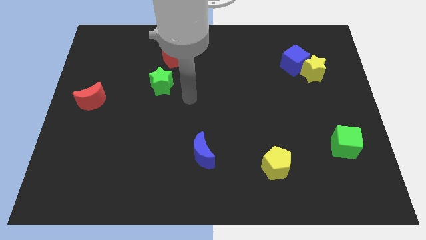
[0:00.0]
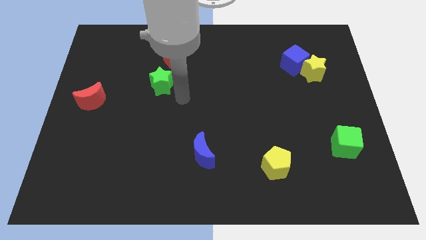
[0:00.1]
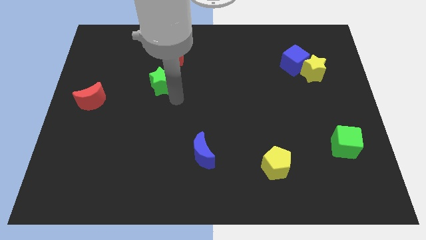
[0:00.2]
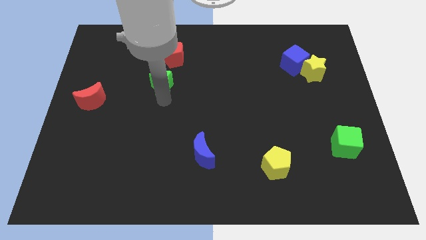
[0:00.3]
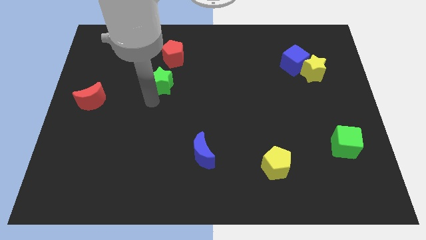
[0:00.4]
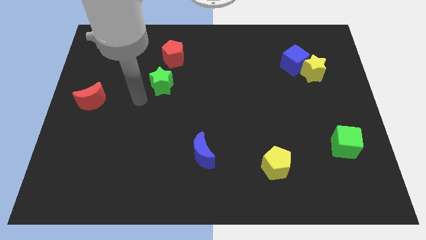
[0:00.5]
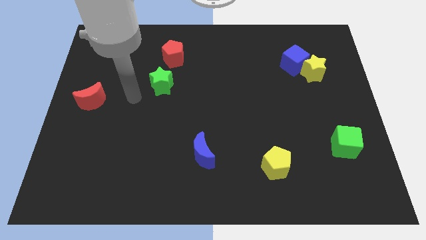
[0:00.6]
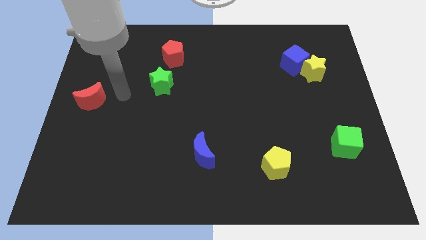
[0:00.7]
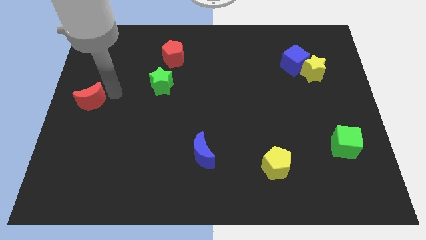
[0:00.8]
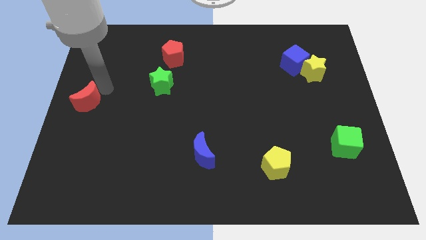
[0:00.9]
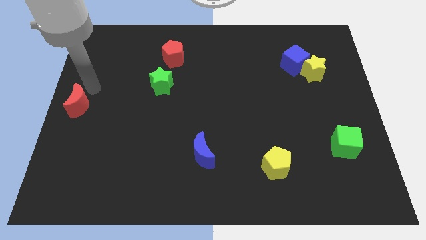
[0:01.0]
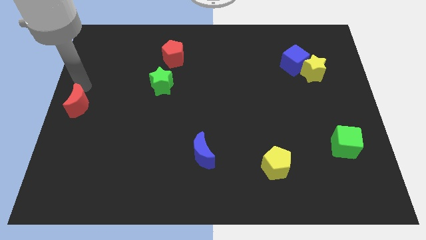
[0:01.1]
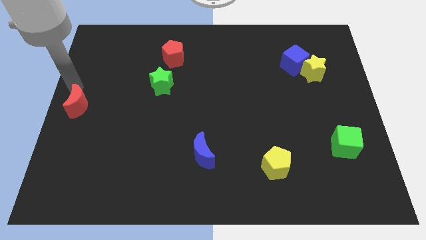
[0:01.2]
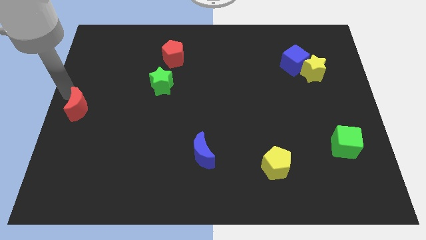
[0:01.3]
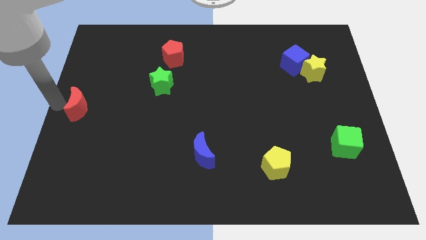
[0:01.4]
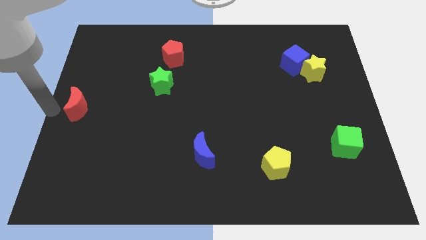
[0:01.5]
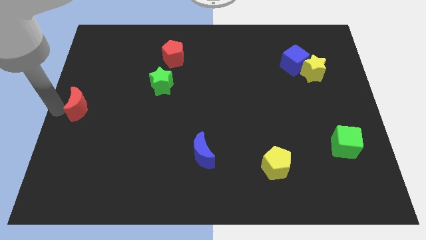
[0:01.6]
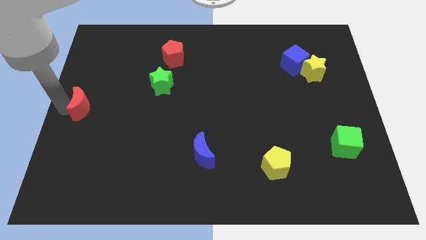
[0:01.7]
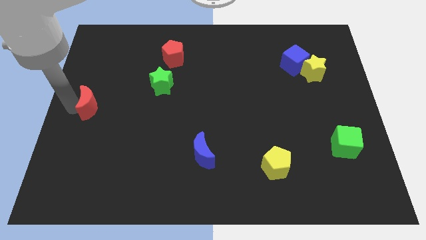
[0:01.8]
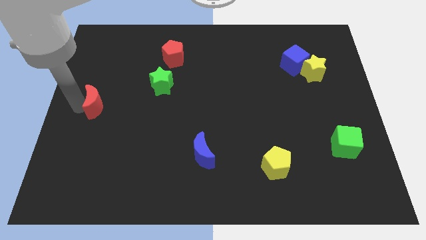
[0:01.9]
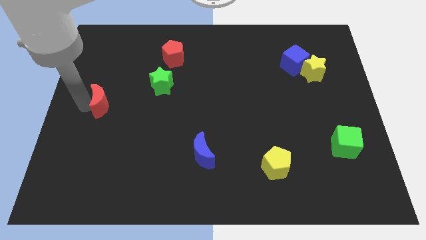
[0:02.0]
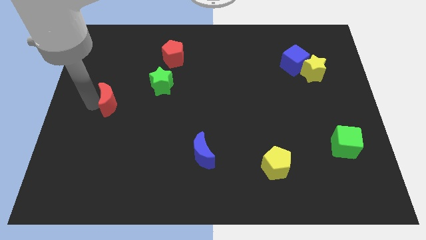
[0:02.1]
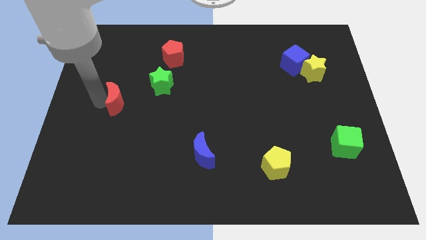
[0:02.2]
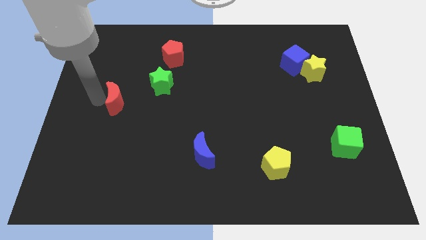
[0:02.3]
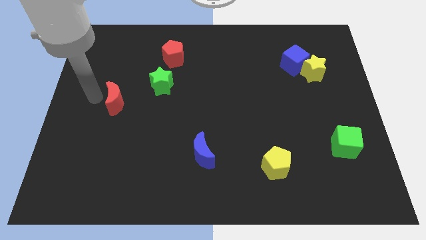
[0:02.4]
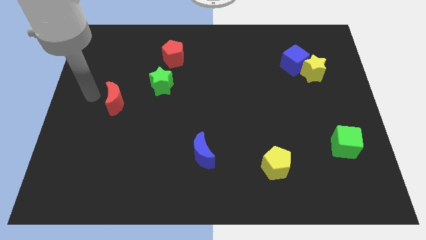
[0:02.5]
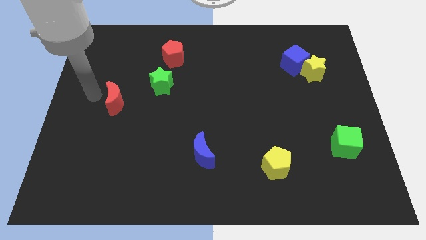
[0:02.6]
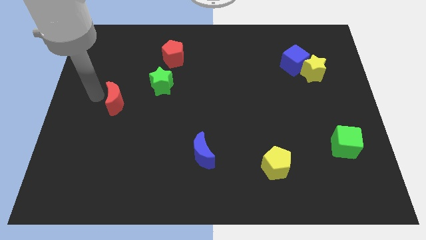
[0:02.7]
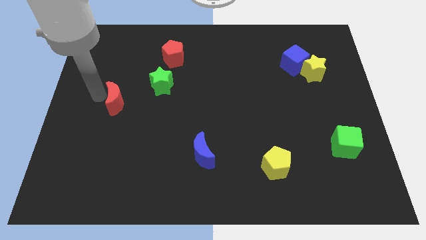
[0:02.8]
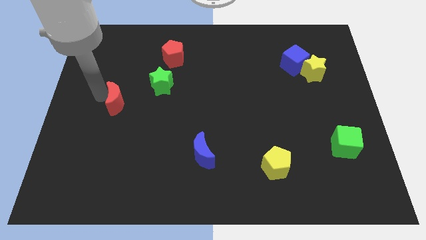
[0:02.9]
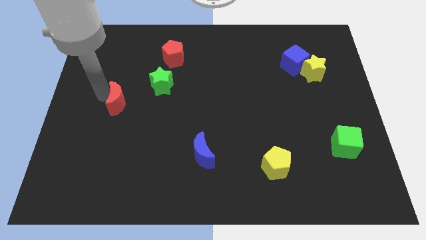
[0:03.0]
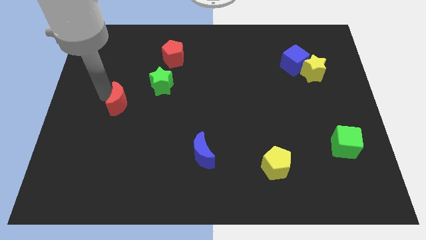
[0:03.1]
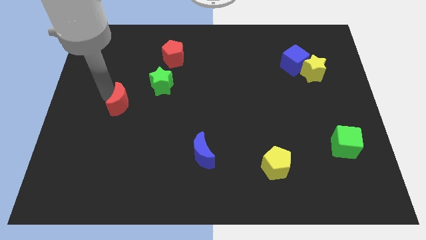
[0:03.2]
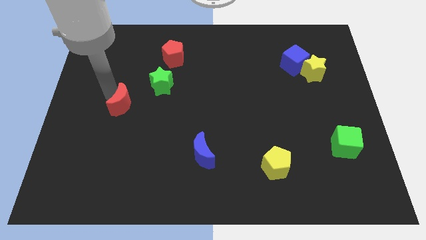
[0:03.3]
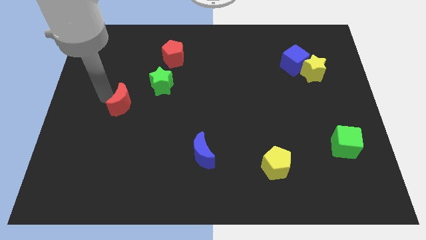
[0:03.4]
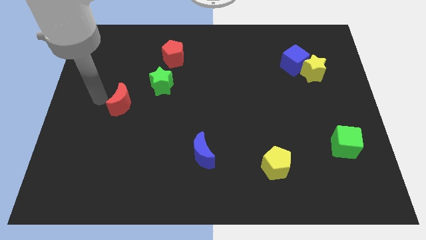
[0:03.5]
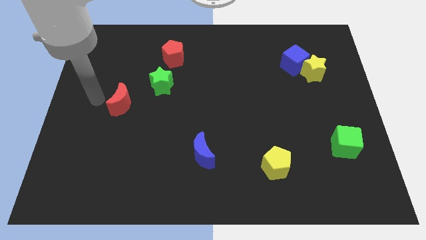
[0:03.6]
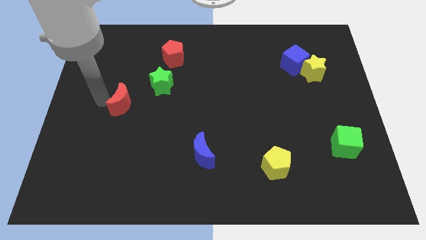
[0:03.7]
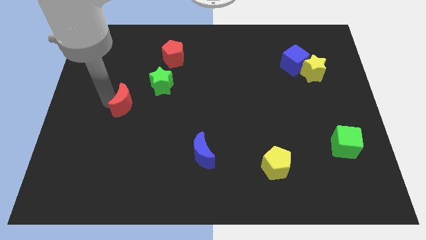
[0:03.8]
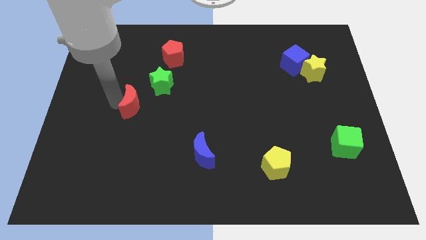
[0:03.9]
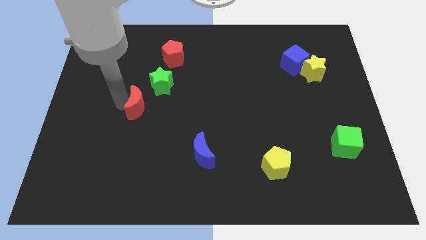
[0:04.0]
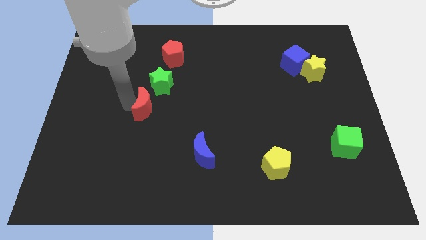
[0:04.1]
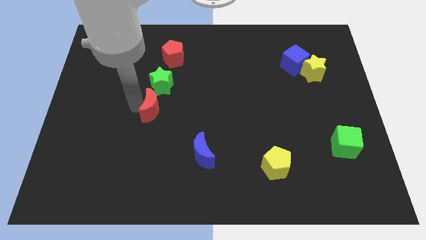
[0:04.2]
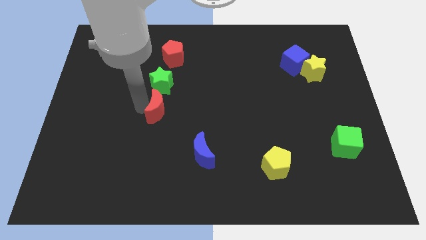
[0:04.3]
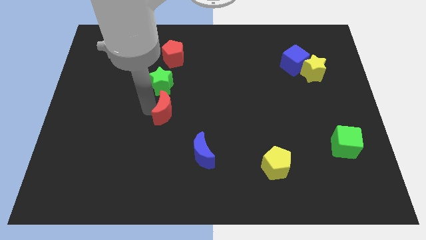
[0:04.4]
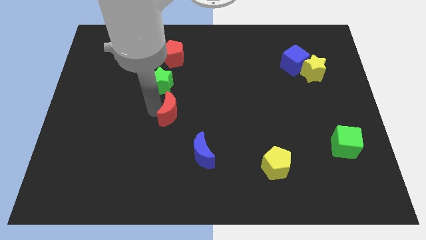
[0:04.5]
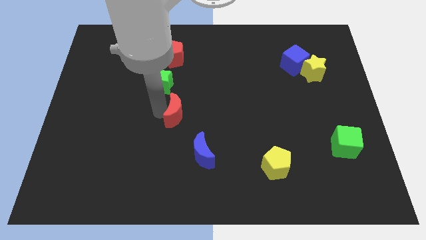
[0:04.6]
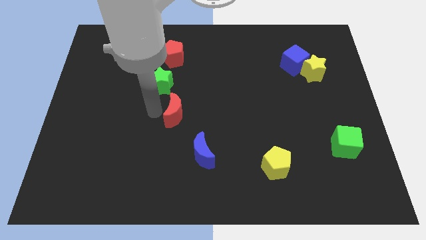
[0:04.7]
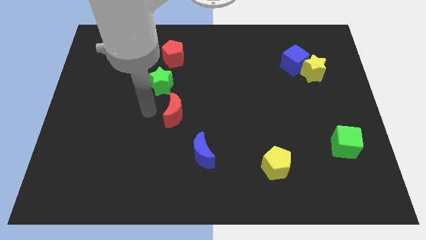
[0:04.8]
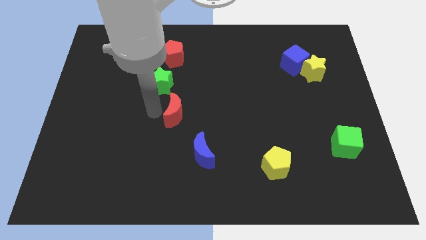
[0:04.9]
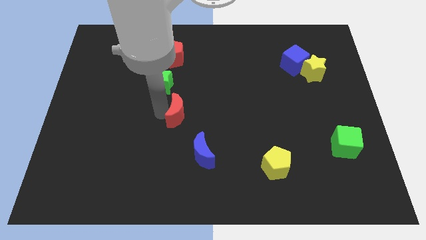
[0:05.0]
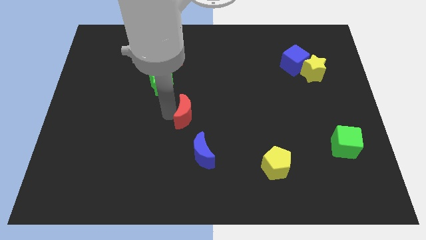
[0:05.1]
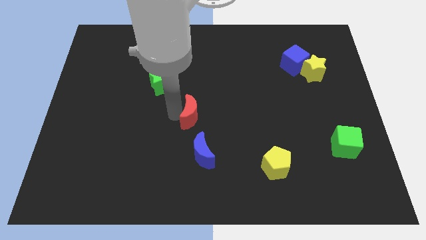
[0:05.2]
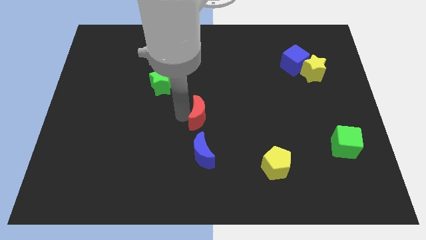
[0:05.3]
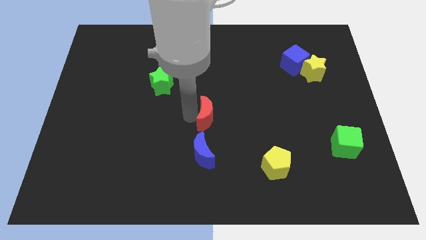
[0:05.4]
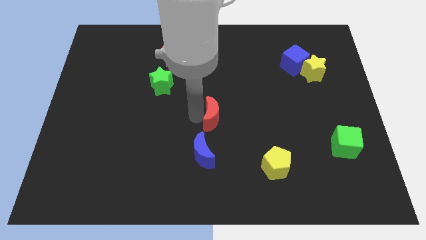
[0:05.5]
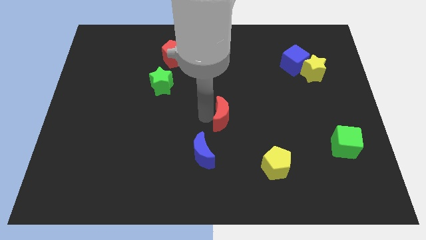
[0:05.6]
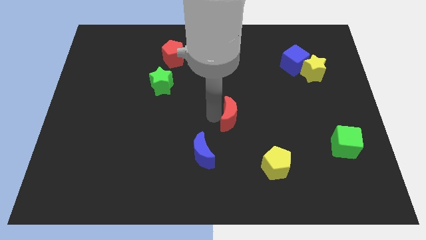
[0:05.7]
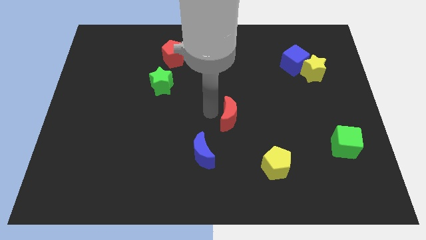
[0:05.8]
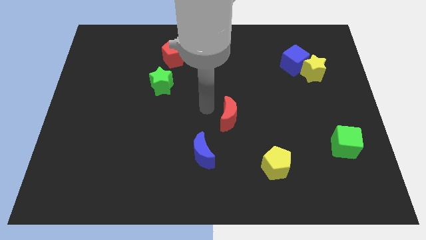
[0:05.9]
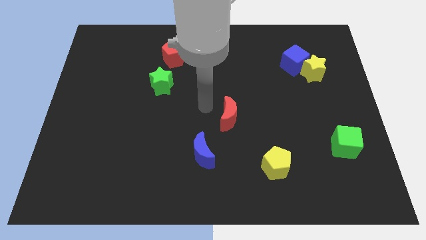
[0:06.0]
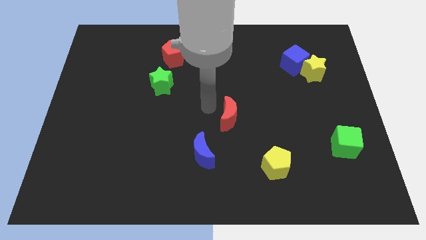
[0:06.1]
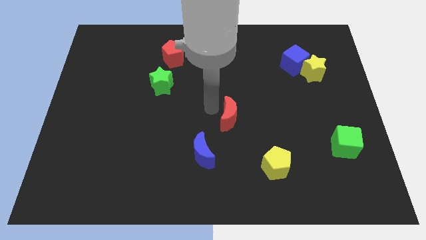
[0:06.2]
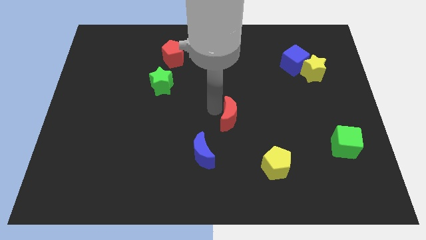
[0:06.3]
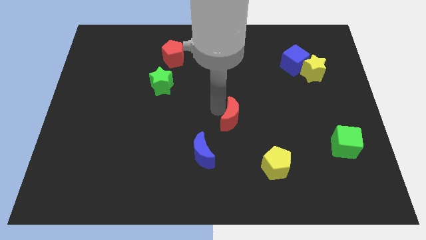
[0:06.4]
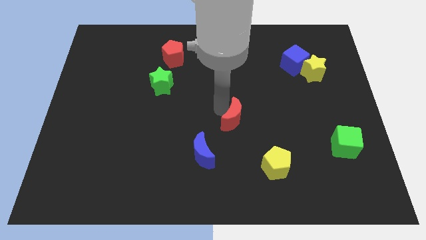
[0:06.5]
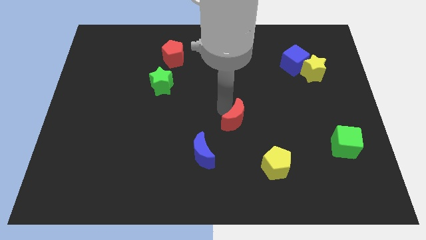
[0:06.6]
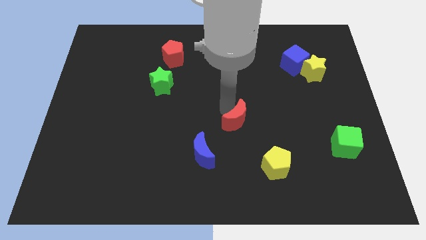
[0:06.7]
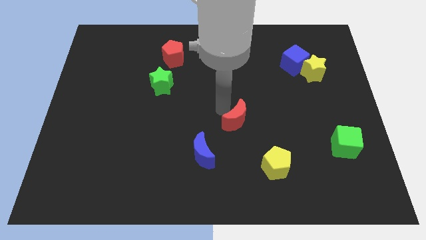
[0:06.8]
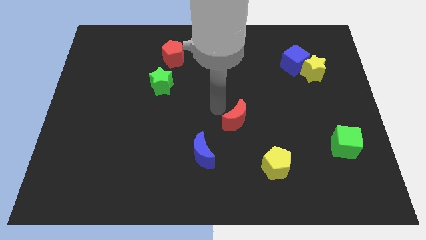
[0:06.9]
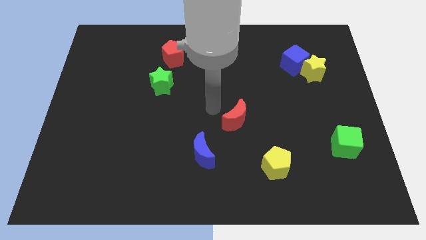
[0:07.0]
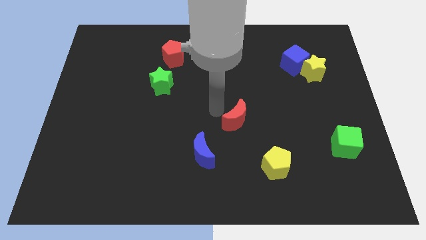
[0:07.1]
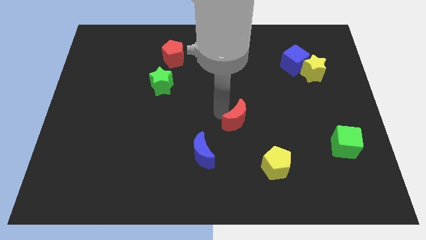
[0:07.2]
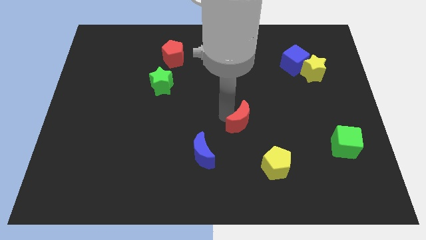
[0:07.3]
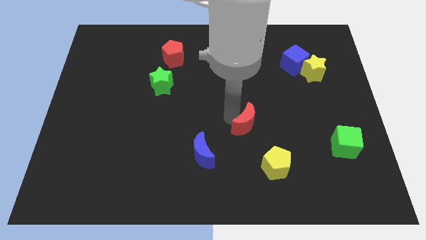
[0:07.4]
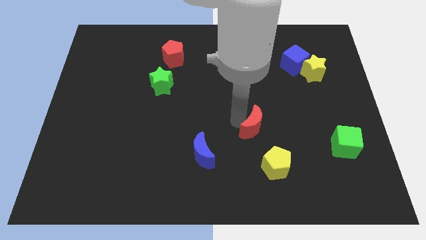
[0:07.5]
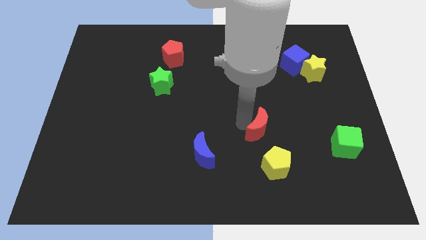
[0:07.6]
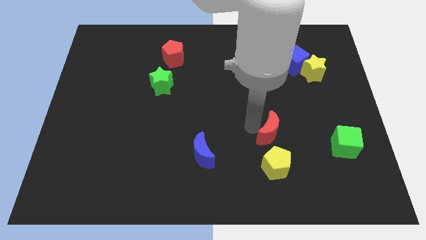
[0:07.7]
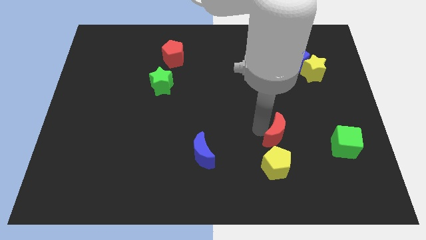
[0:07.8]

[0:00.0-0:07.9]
move the red moon to the left side of the green cube

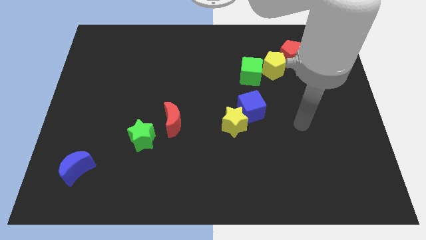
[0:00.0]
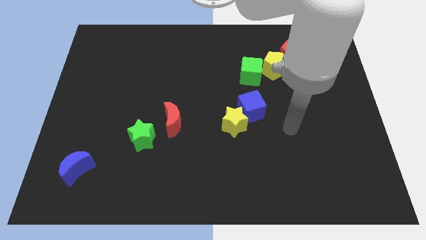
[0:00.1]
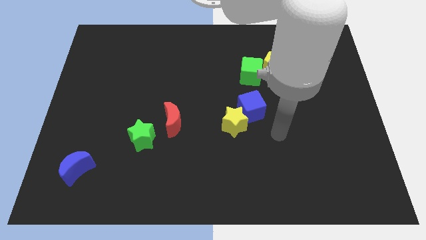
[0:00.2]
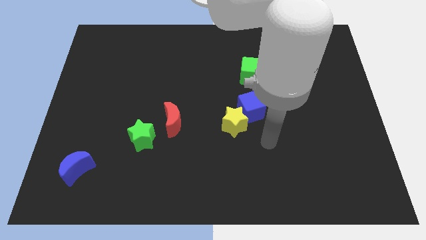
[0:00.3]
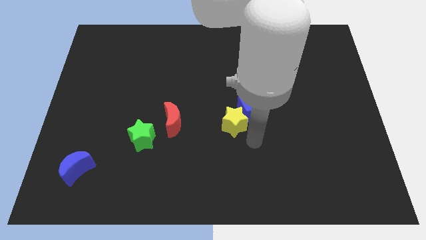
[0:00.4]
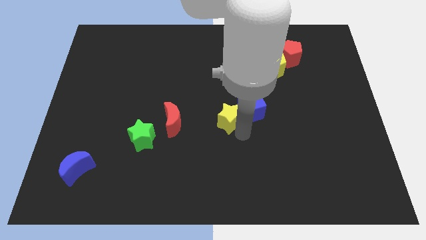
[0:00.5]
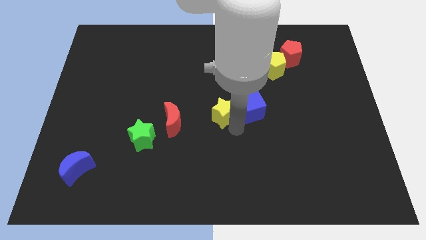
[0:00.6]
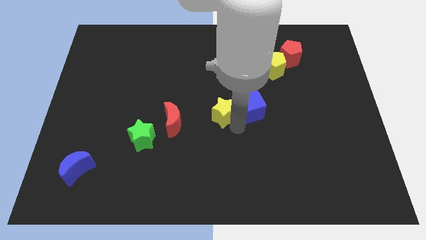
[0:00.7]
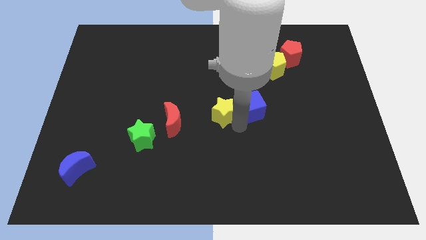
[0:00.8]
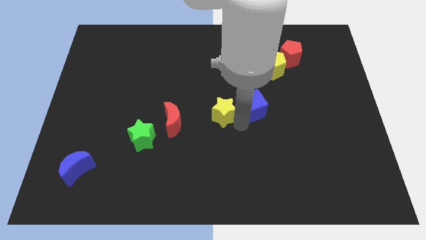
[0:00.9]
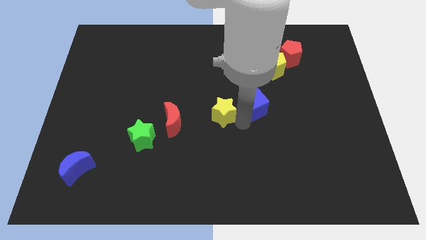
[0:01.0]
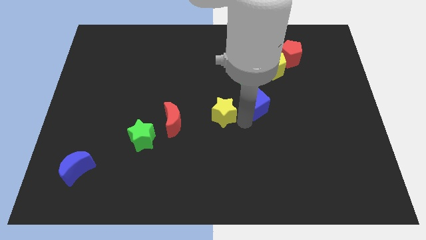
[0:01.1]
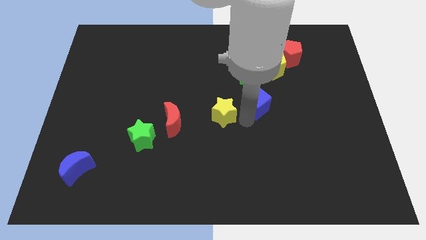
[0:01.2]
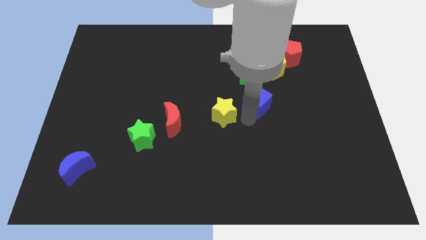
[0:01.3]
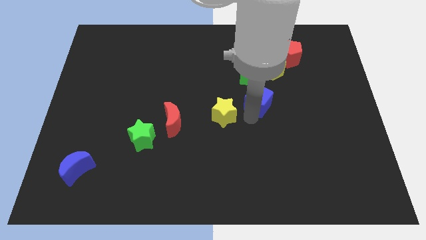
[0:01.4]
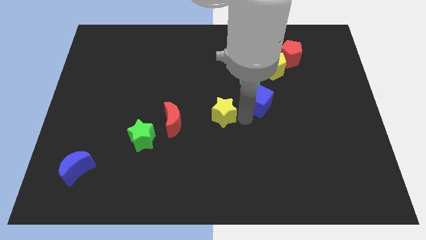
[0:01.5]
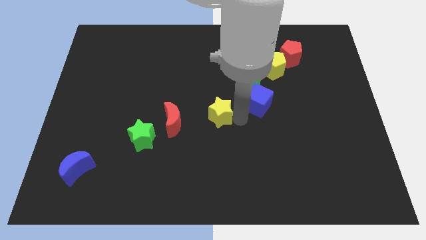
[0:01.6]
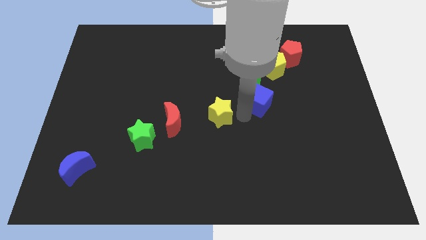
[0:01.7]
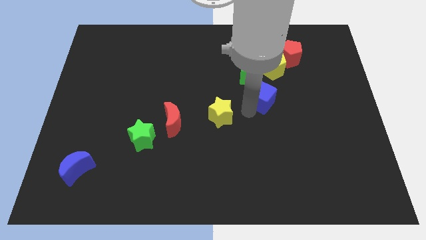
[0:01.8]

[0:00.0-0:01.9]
move the blue cube to the bottom right of the green cube
